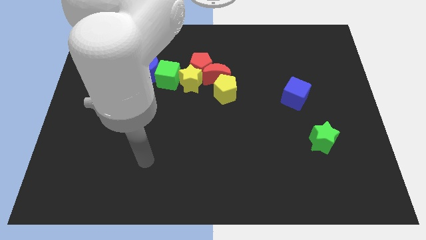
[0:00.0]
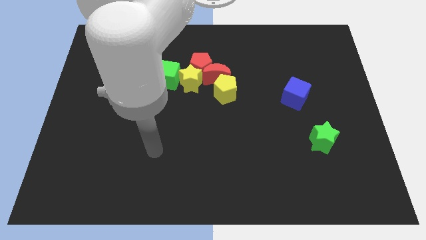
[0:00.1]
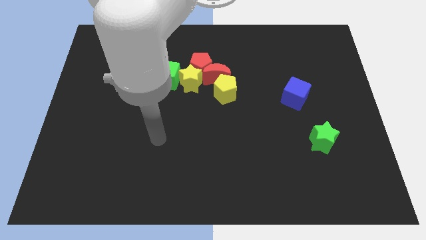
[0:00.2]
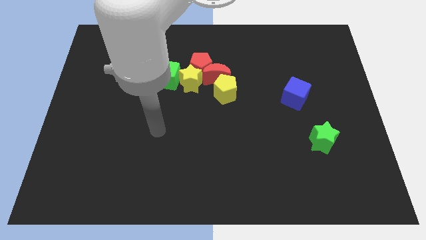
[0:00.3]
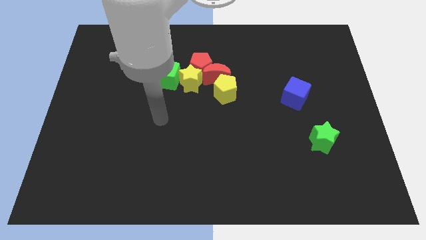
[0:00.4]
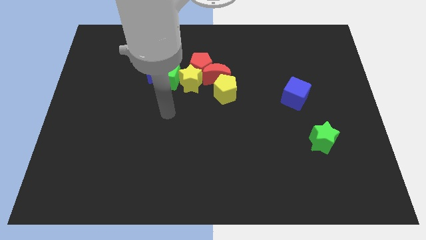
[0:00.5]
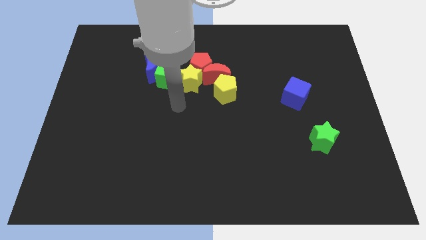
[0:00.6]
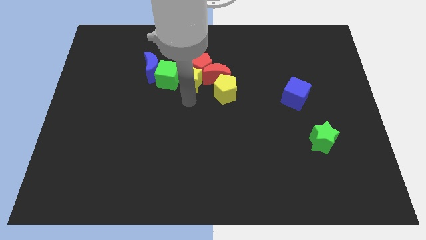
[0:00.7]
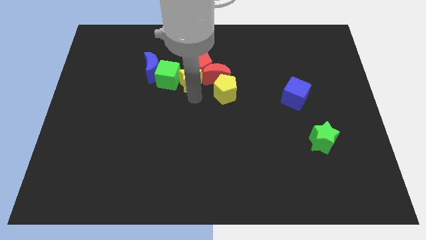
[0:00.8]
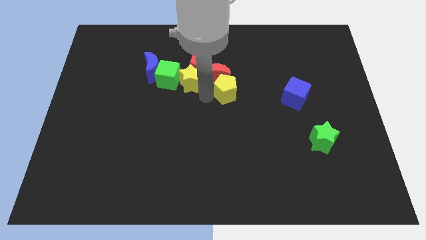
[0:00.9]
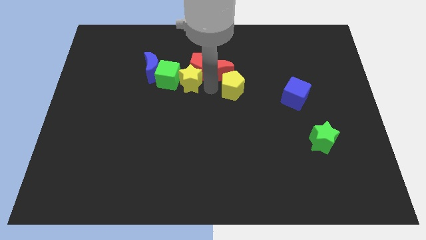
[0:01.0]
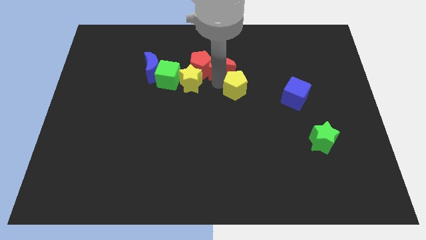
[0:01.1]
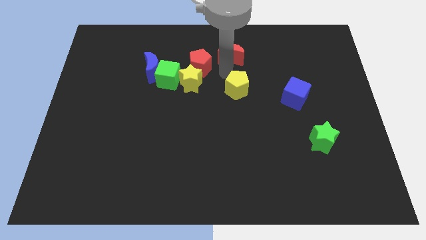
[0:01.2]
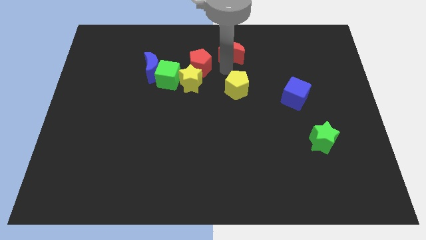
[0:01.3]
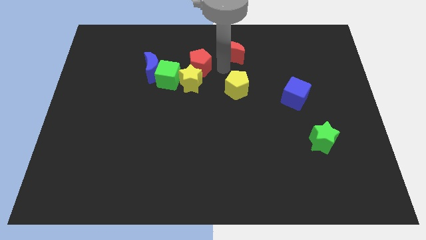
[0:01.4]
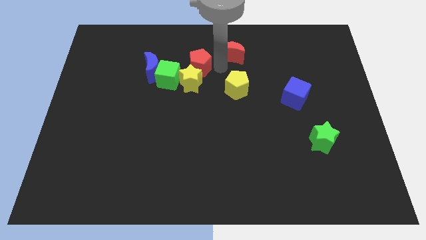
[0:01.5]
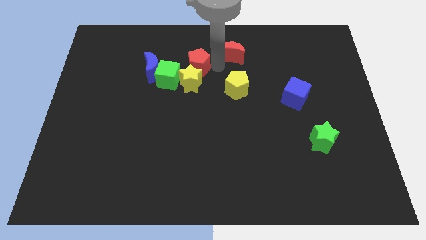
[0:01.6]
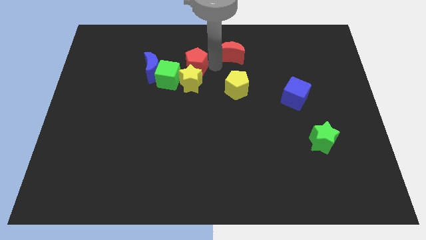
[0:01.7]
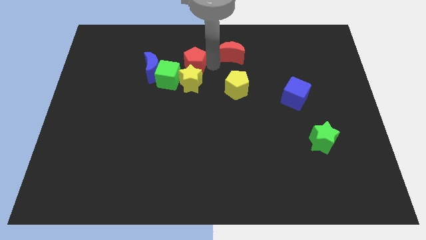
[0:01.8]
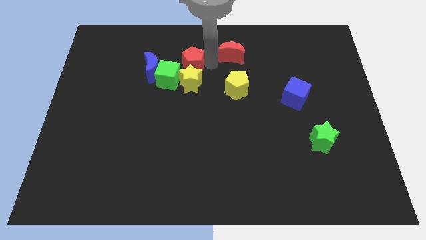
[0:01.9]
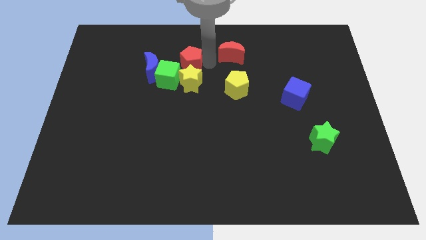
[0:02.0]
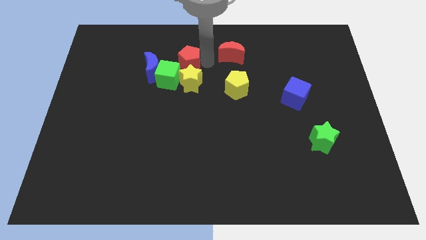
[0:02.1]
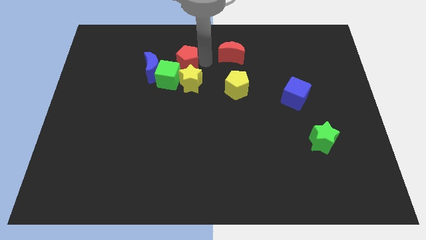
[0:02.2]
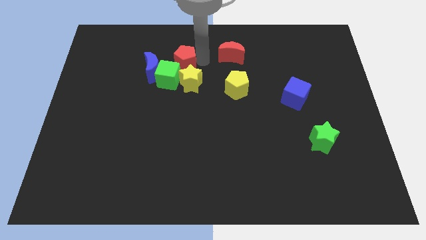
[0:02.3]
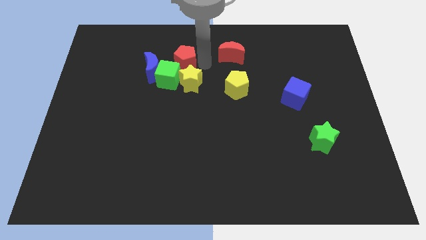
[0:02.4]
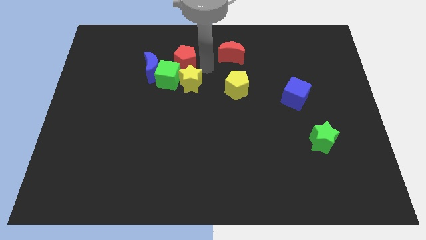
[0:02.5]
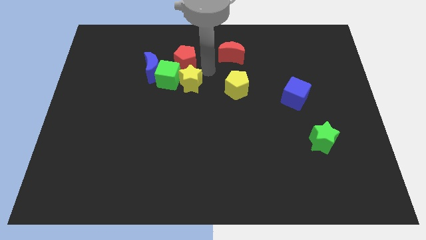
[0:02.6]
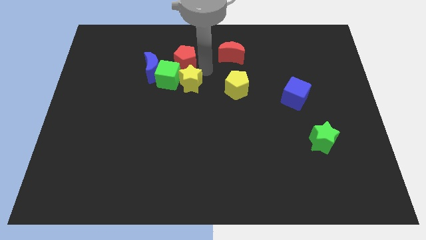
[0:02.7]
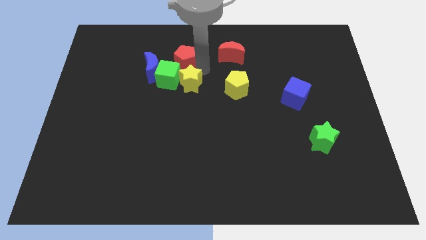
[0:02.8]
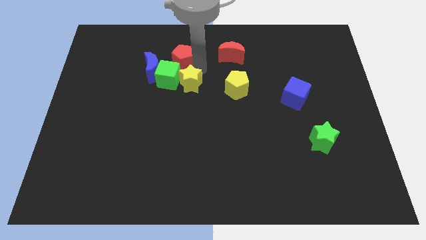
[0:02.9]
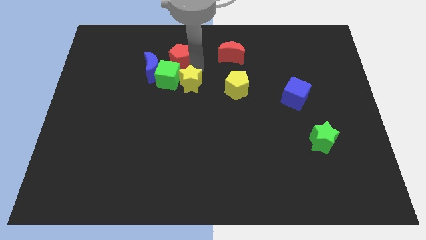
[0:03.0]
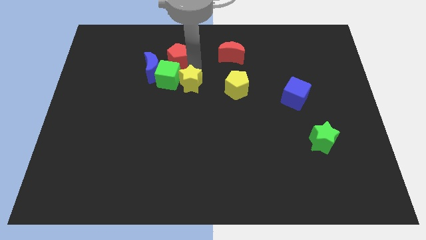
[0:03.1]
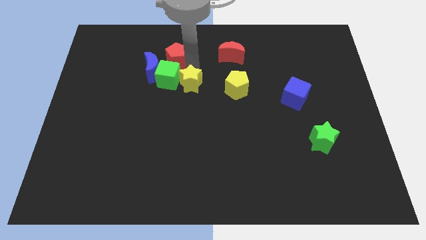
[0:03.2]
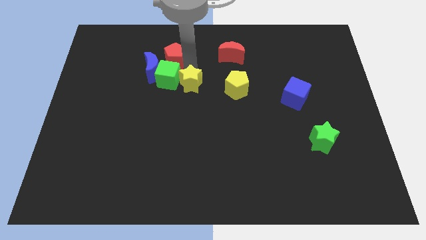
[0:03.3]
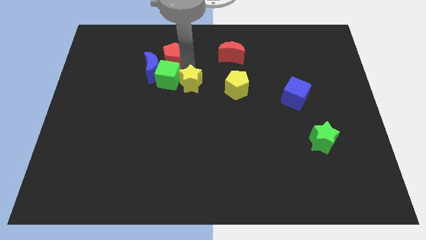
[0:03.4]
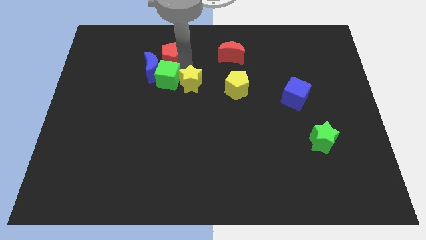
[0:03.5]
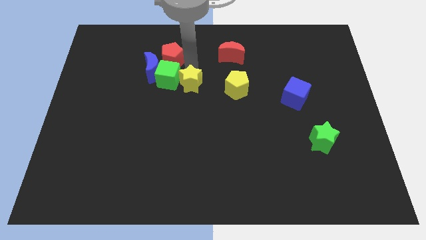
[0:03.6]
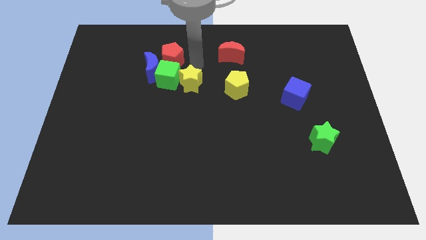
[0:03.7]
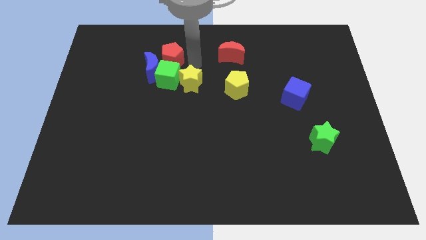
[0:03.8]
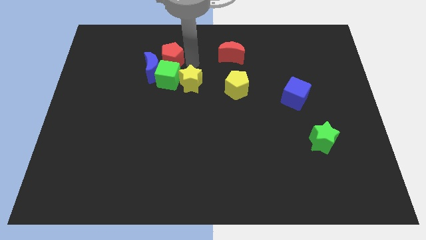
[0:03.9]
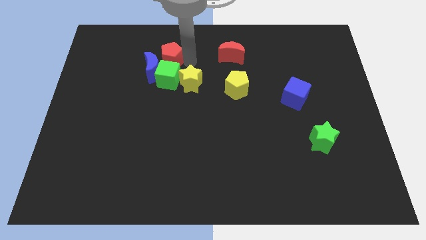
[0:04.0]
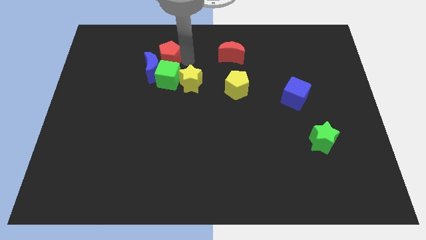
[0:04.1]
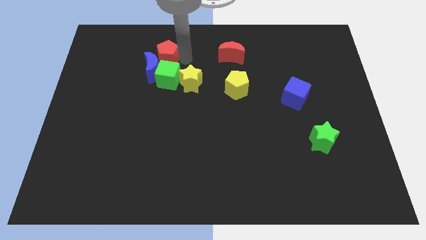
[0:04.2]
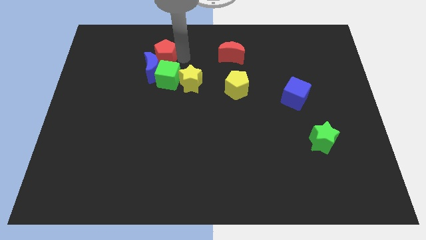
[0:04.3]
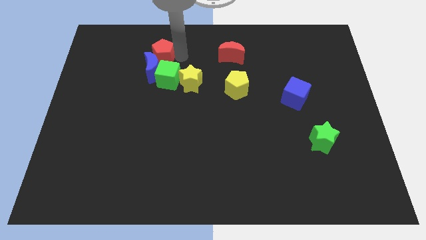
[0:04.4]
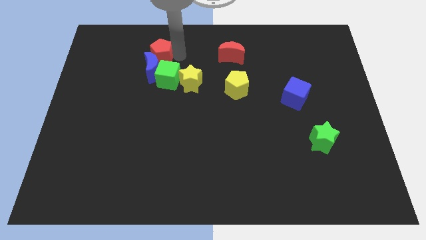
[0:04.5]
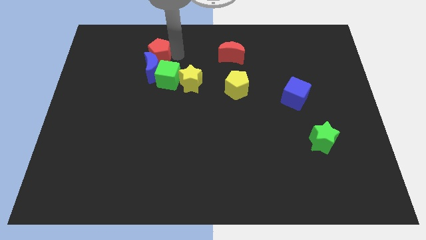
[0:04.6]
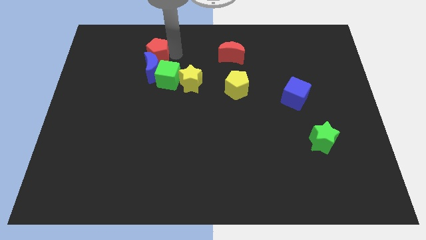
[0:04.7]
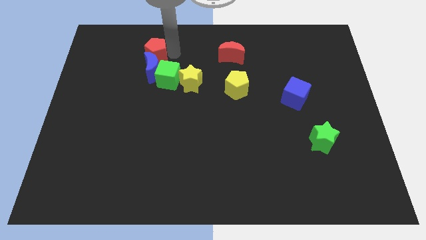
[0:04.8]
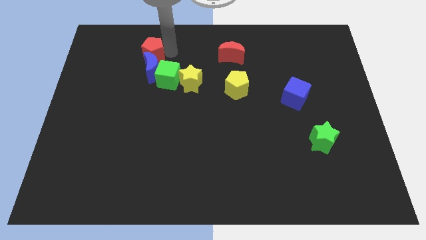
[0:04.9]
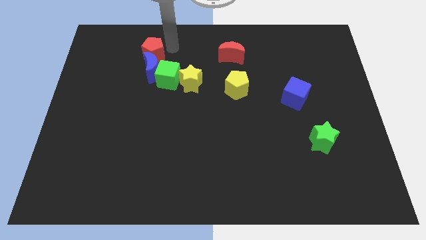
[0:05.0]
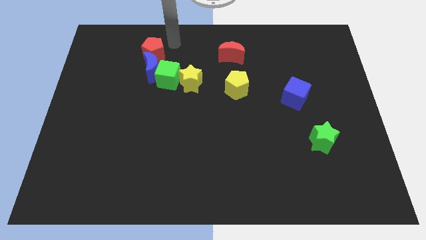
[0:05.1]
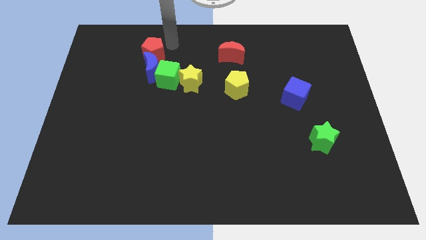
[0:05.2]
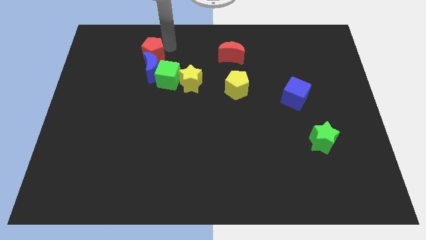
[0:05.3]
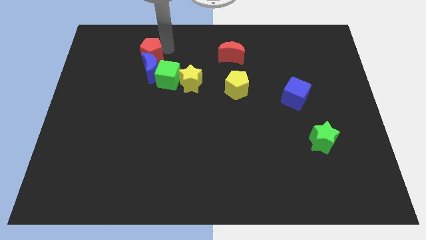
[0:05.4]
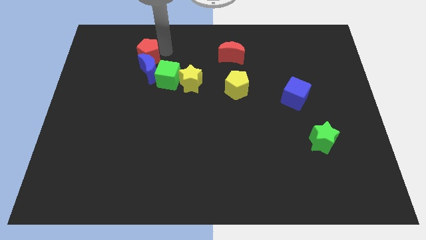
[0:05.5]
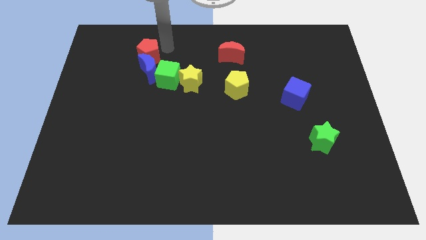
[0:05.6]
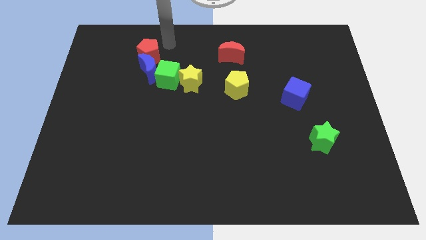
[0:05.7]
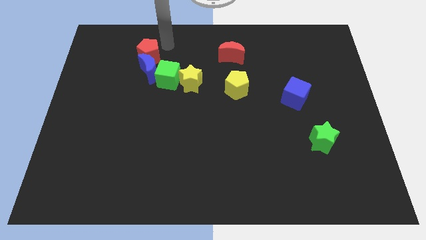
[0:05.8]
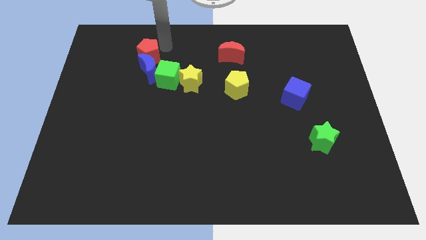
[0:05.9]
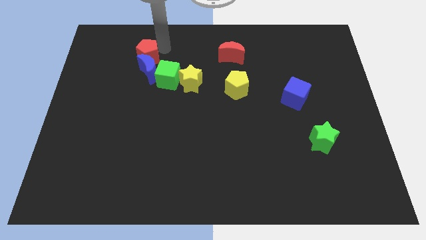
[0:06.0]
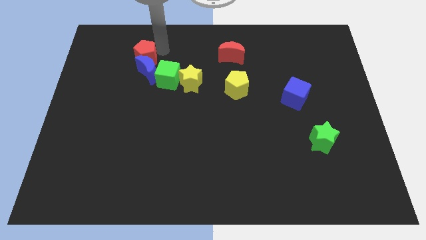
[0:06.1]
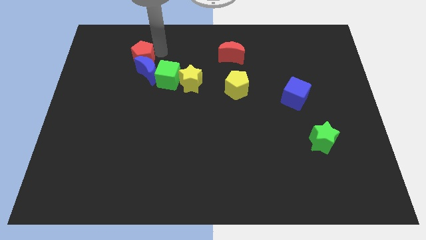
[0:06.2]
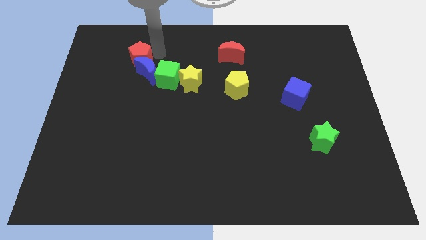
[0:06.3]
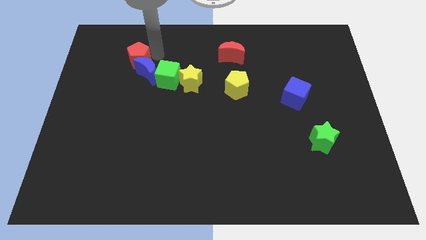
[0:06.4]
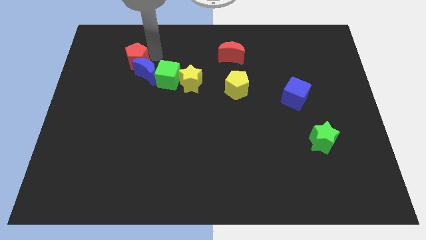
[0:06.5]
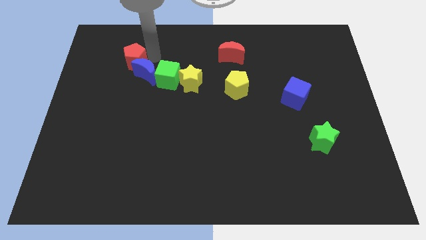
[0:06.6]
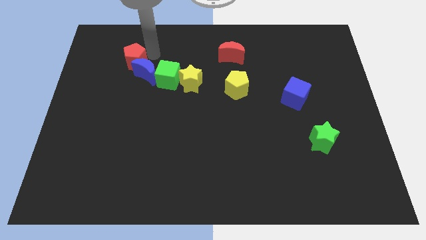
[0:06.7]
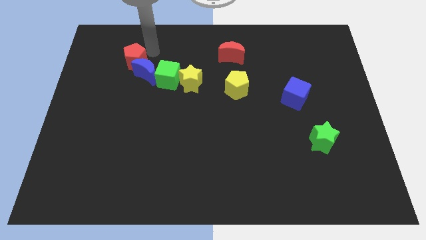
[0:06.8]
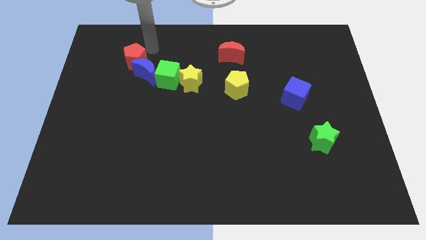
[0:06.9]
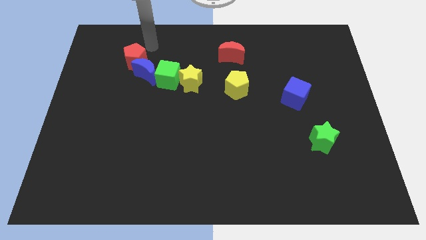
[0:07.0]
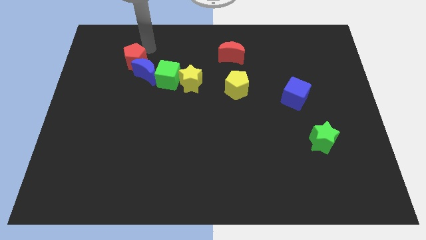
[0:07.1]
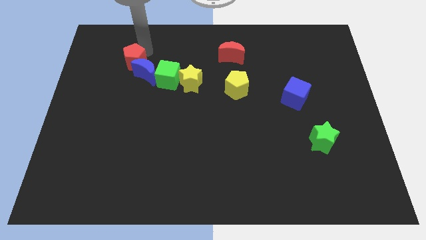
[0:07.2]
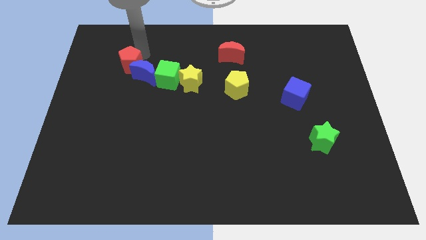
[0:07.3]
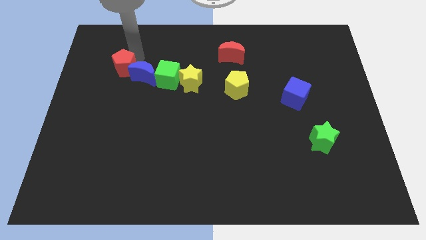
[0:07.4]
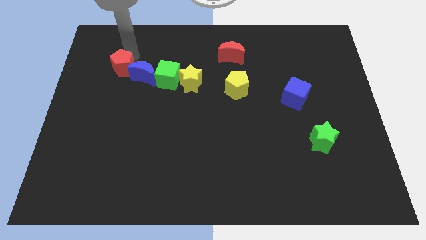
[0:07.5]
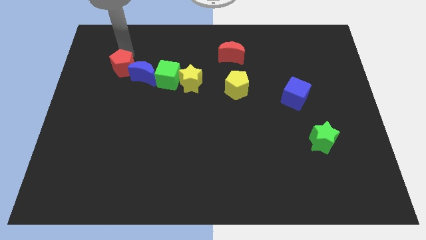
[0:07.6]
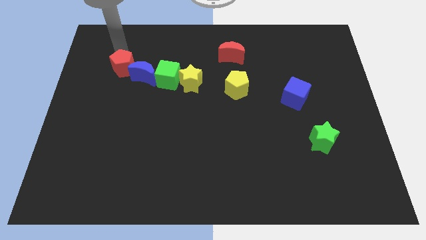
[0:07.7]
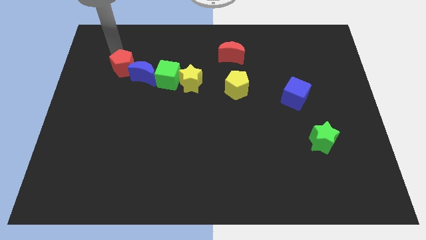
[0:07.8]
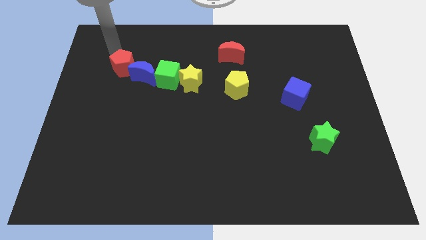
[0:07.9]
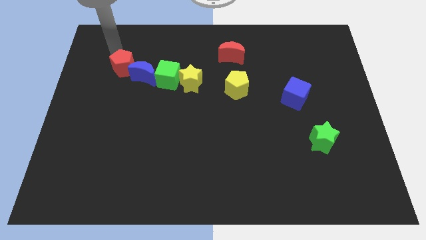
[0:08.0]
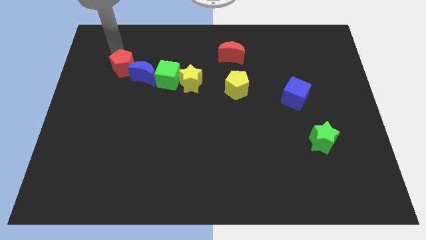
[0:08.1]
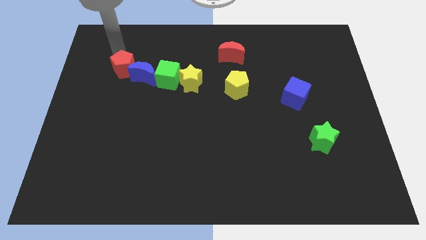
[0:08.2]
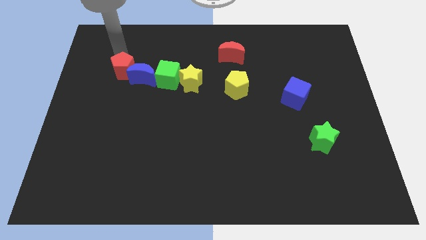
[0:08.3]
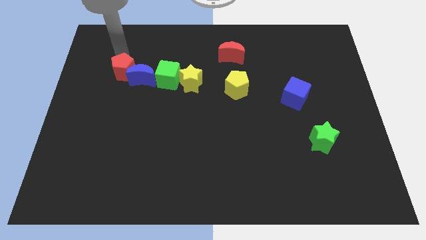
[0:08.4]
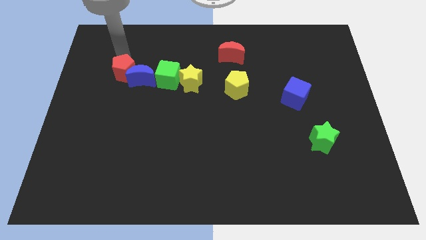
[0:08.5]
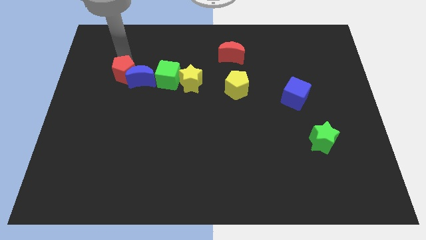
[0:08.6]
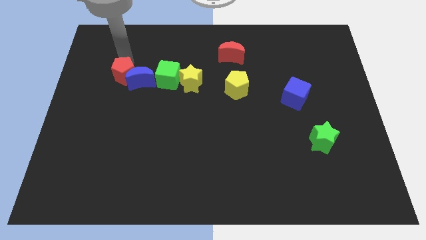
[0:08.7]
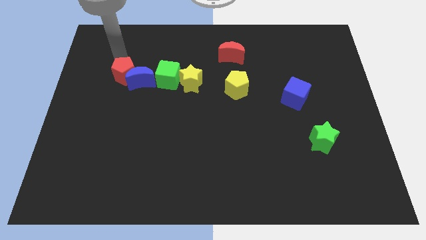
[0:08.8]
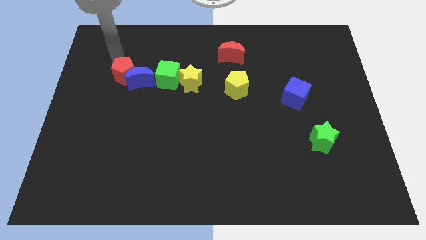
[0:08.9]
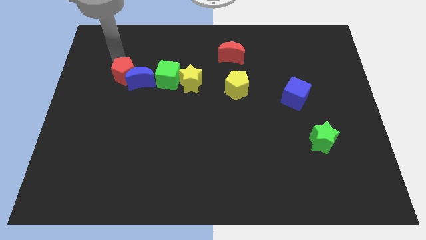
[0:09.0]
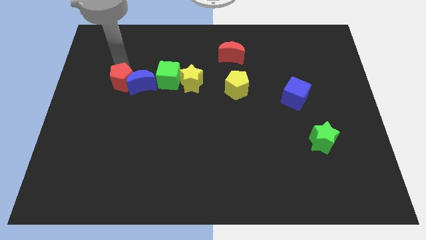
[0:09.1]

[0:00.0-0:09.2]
push the red pentagon downwards and then to the left a little
